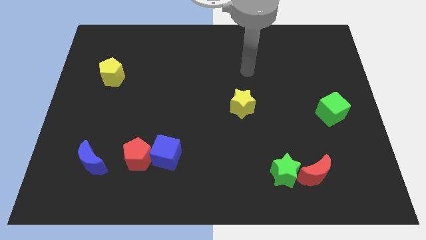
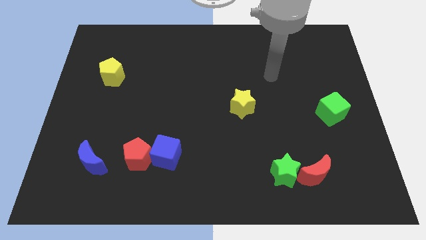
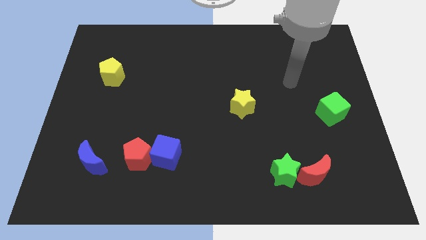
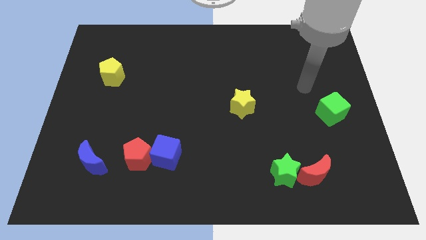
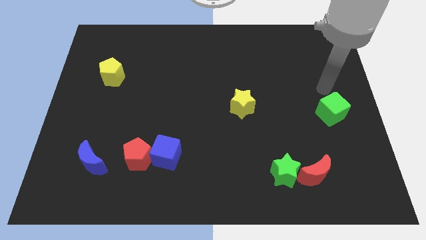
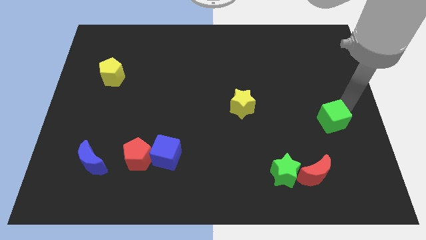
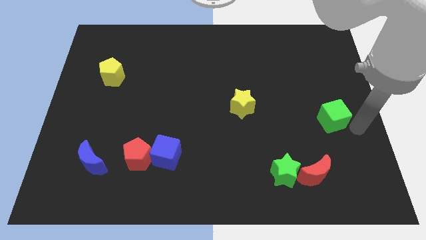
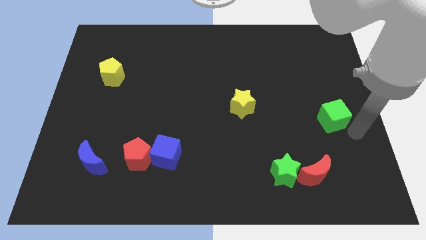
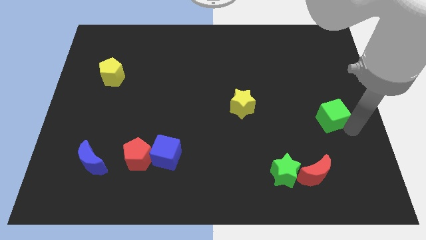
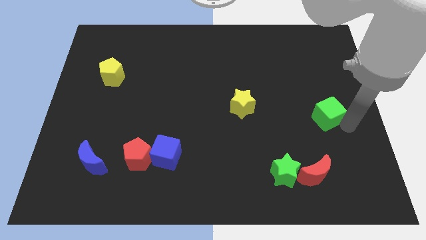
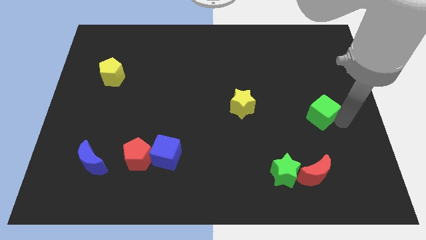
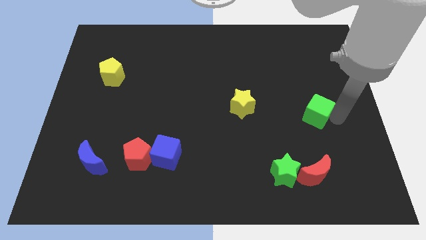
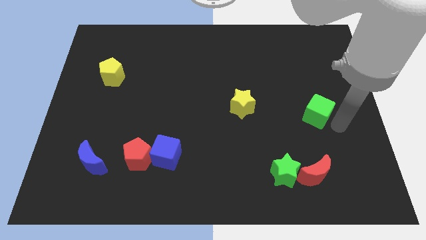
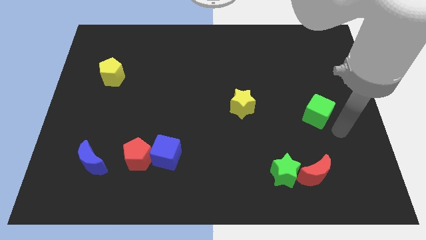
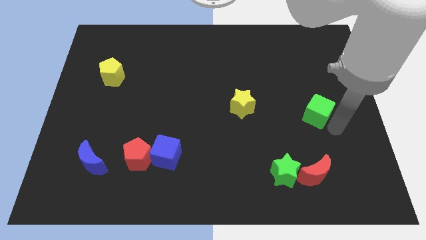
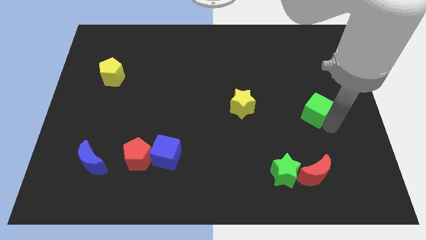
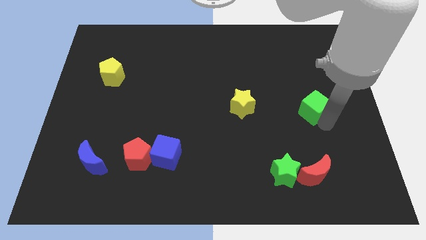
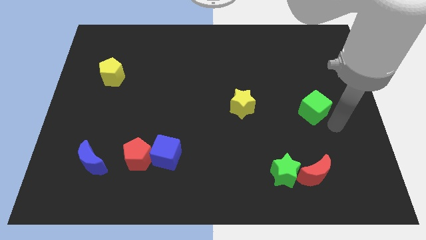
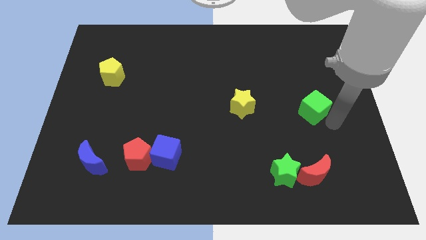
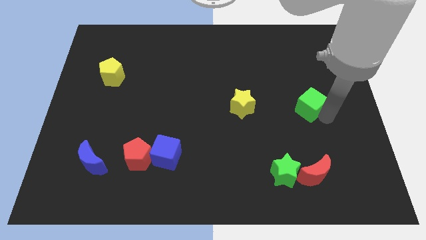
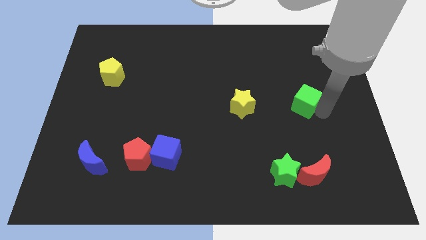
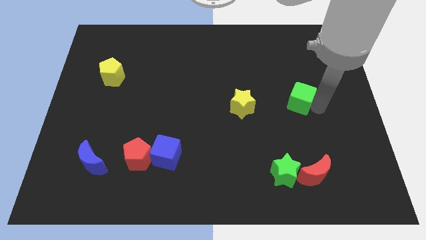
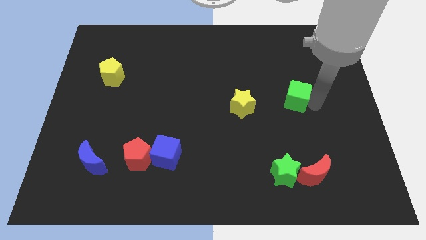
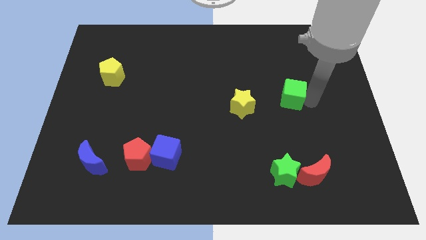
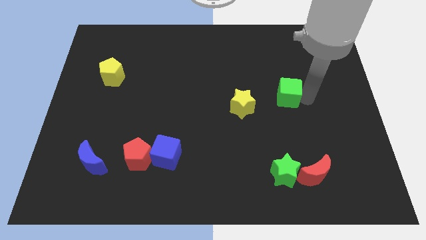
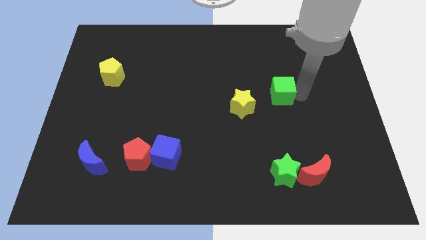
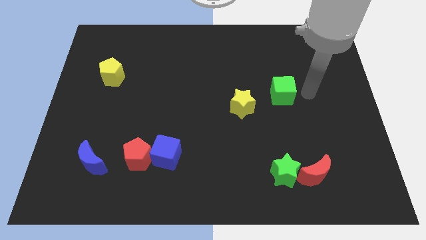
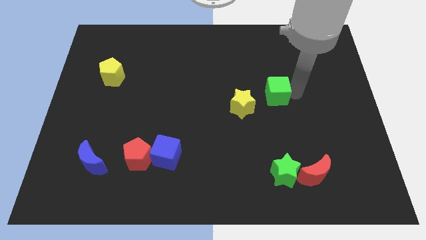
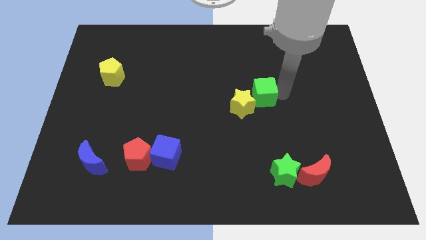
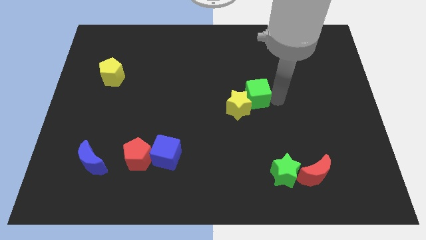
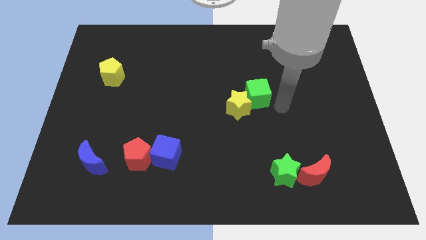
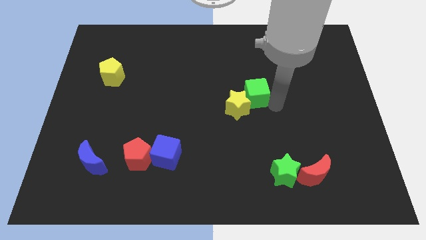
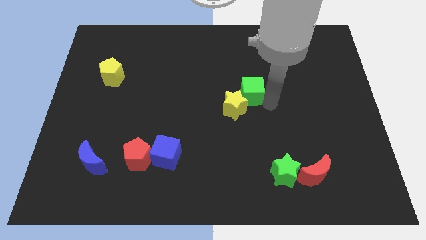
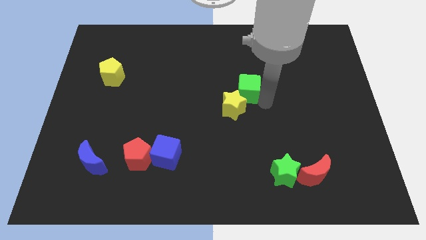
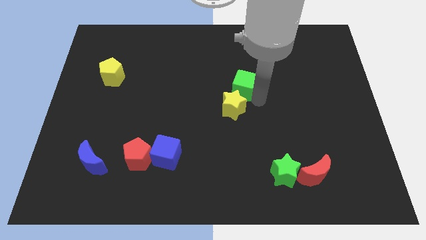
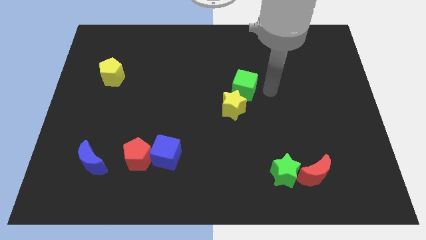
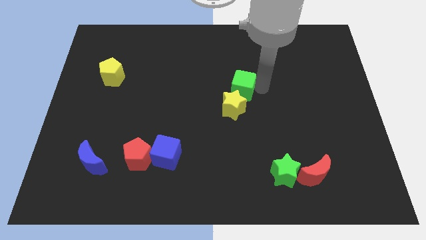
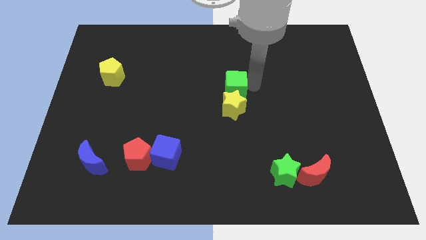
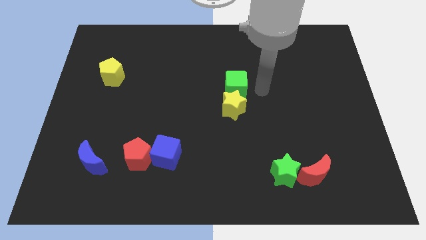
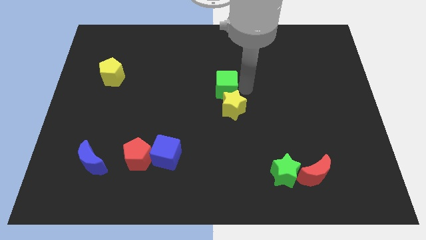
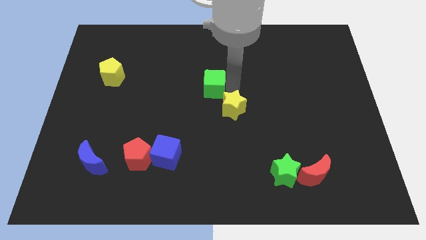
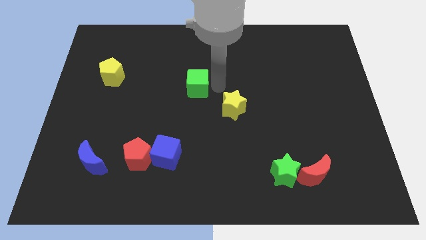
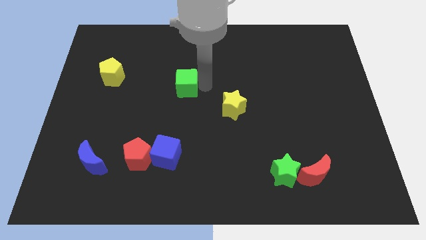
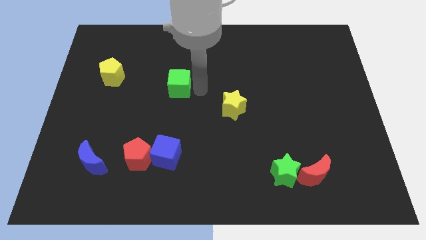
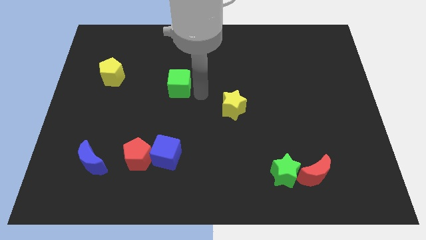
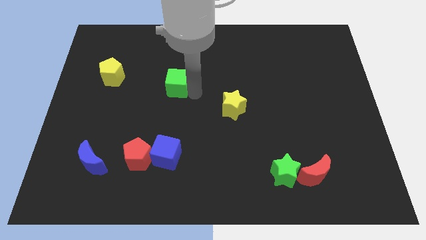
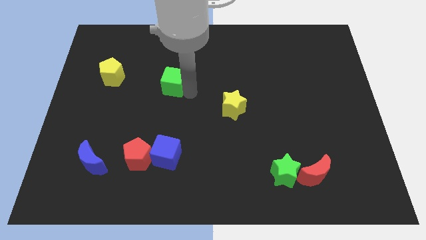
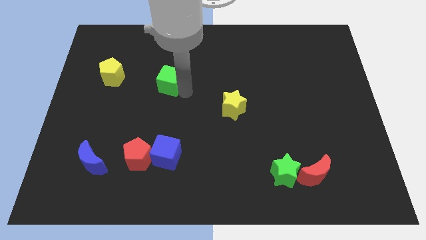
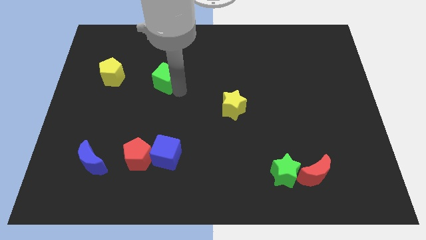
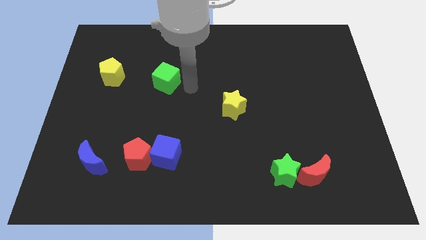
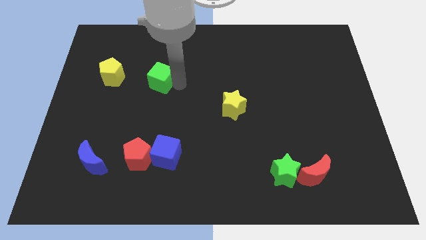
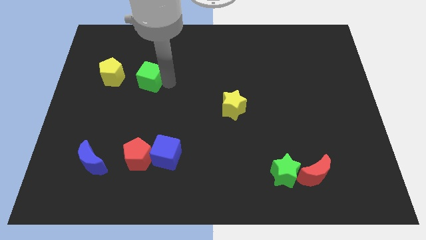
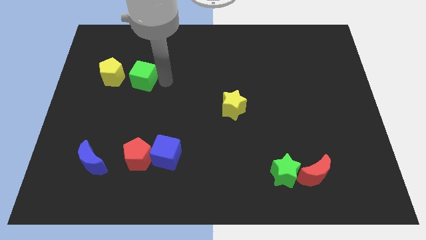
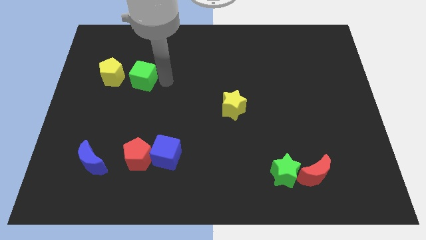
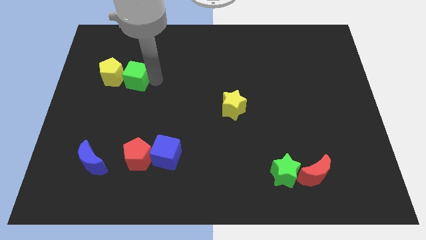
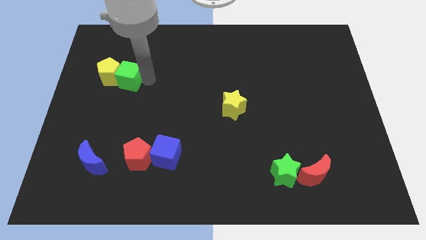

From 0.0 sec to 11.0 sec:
slide the green cube close to the yellow pentagon
